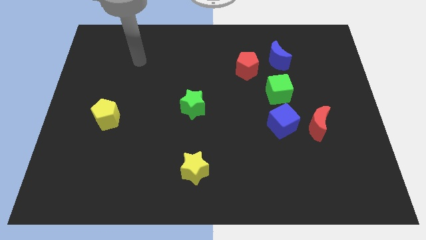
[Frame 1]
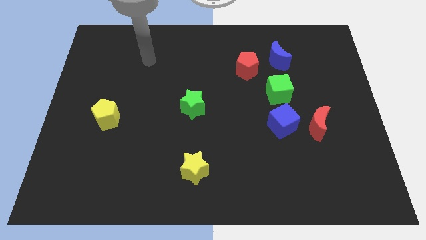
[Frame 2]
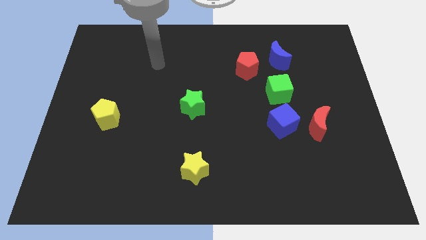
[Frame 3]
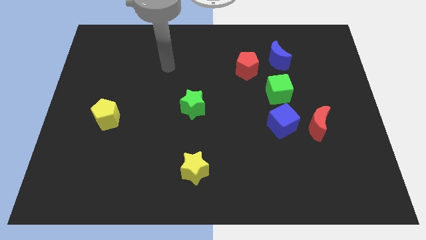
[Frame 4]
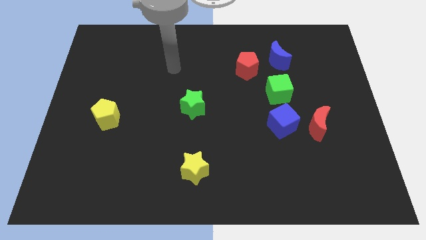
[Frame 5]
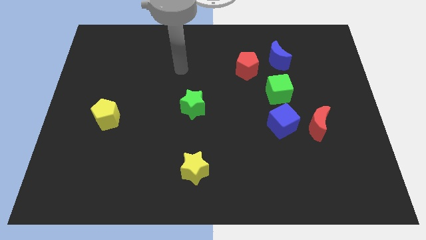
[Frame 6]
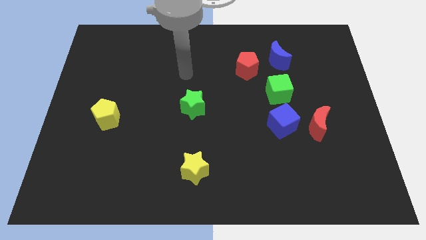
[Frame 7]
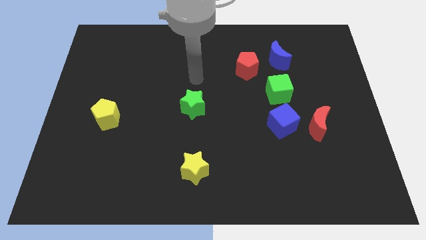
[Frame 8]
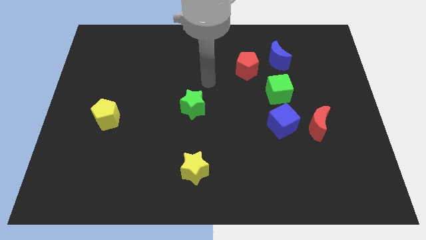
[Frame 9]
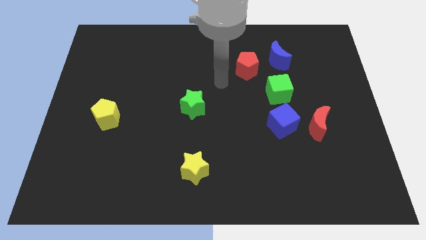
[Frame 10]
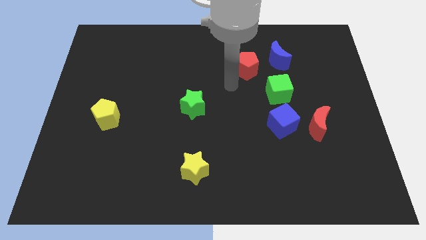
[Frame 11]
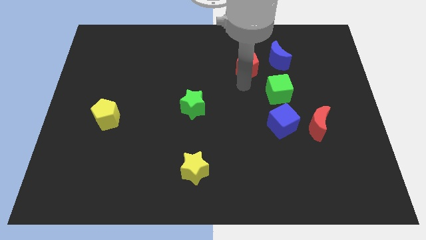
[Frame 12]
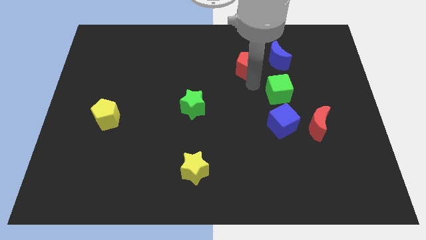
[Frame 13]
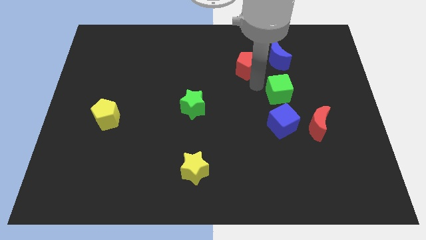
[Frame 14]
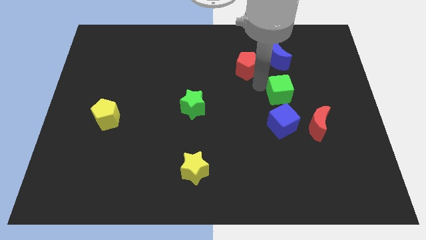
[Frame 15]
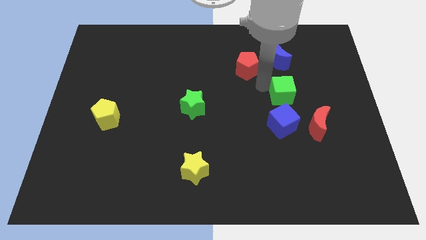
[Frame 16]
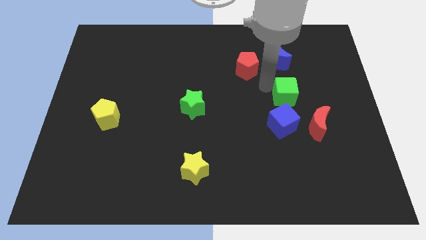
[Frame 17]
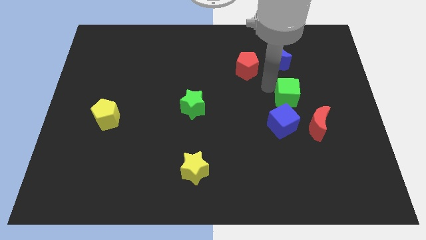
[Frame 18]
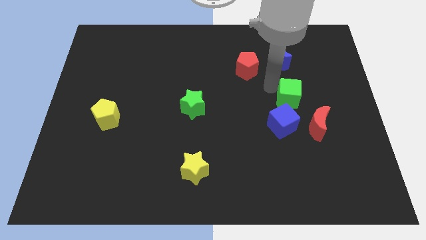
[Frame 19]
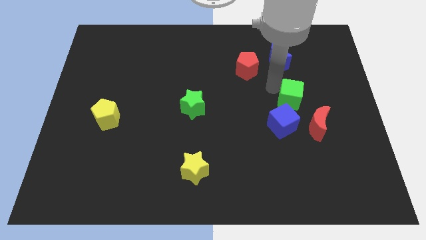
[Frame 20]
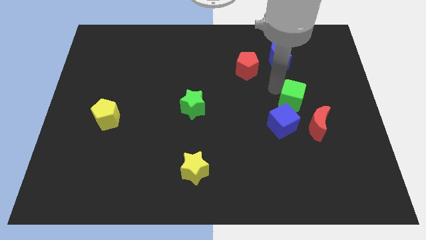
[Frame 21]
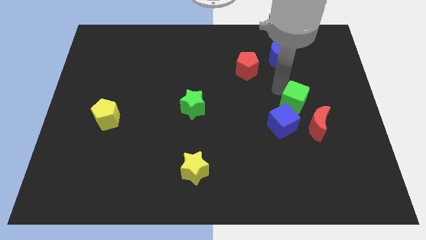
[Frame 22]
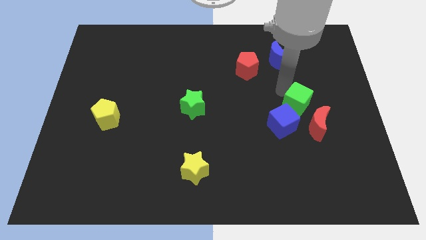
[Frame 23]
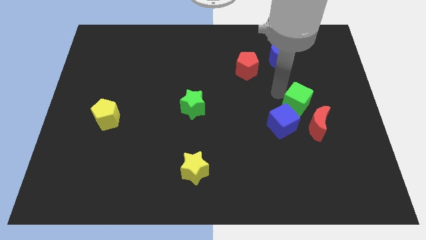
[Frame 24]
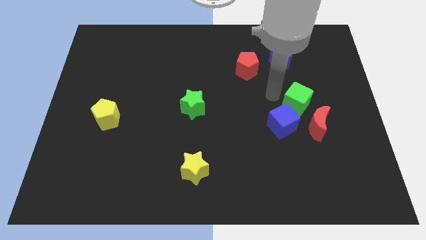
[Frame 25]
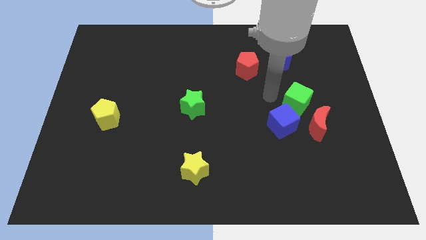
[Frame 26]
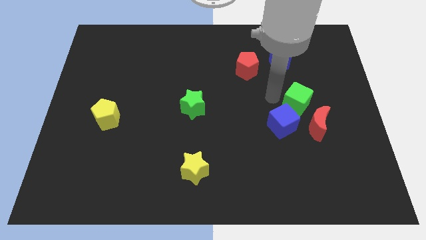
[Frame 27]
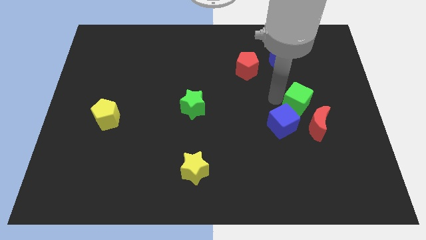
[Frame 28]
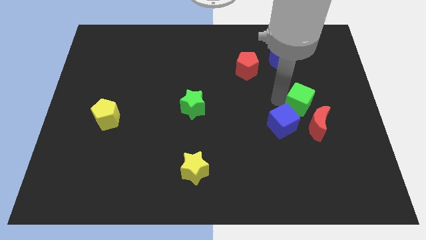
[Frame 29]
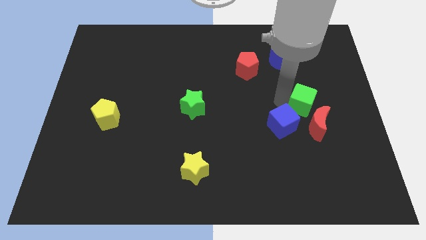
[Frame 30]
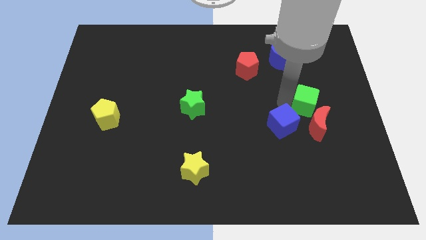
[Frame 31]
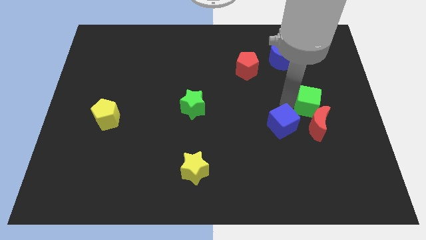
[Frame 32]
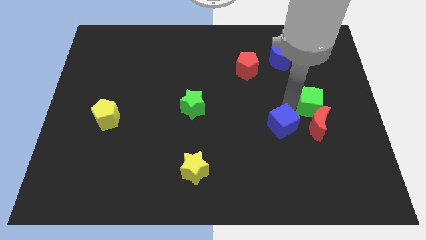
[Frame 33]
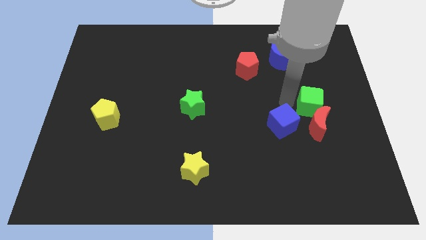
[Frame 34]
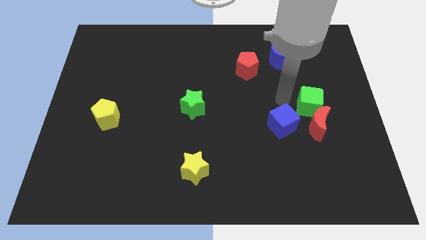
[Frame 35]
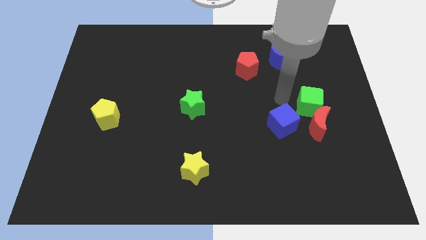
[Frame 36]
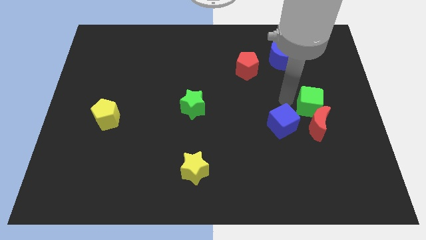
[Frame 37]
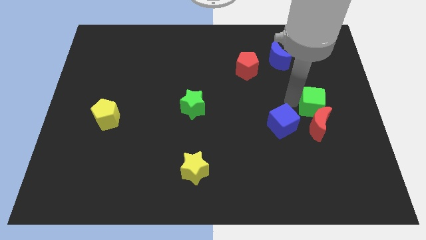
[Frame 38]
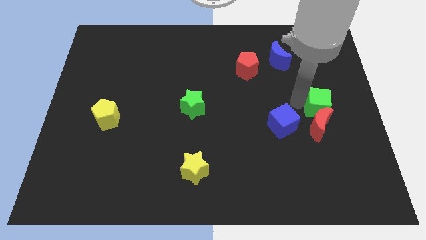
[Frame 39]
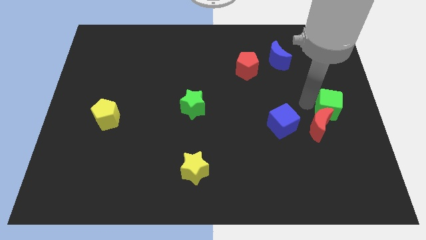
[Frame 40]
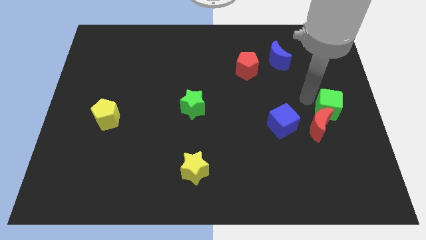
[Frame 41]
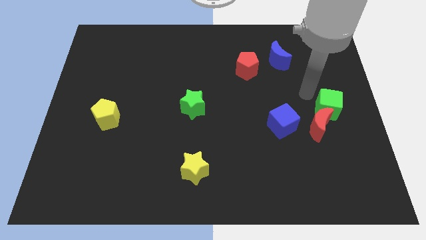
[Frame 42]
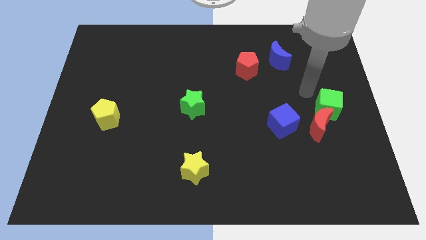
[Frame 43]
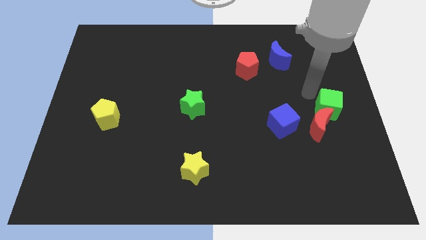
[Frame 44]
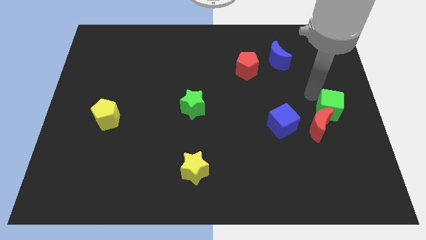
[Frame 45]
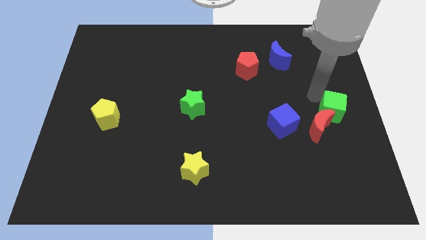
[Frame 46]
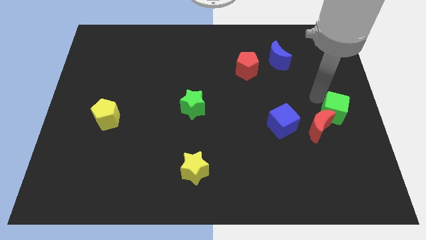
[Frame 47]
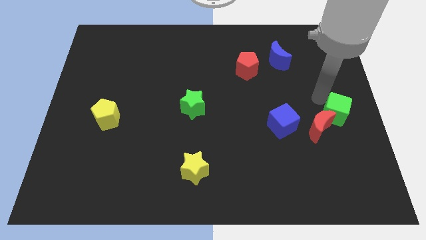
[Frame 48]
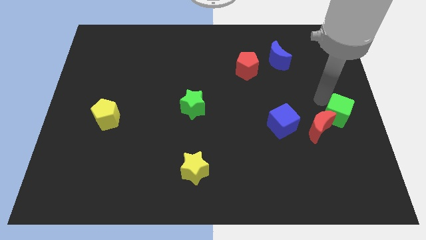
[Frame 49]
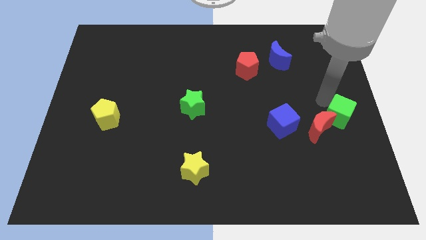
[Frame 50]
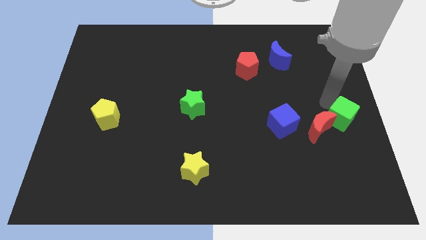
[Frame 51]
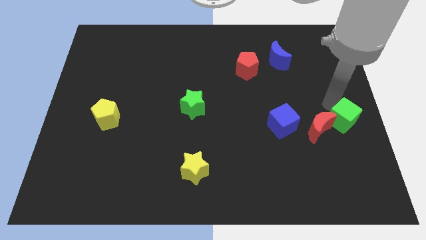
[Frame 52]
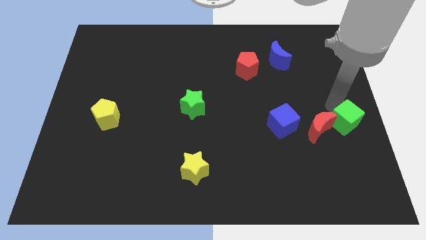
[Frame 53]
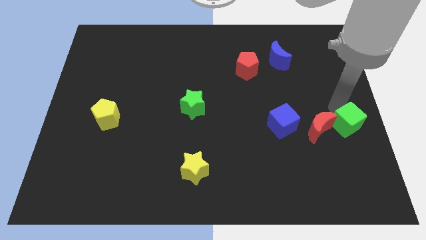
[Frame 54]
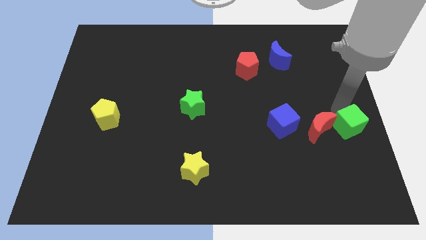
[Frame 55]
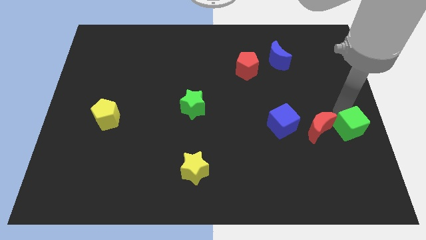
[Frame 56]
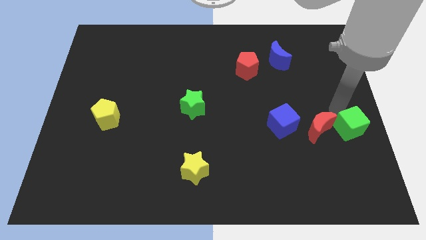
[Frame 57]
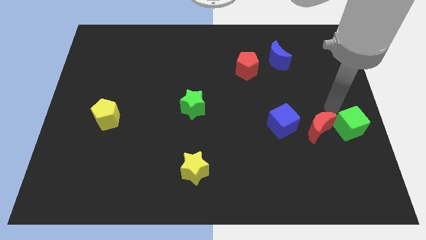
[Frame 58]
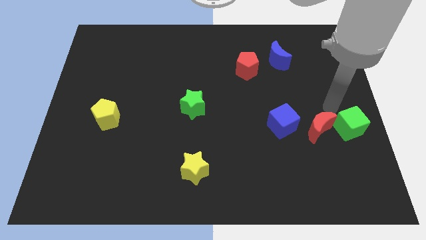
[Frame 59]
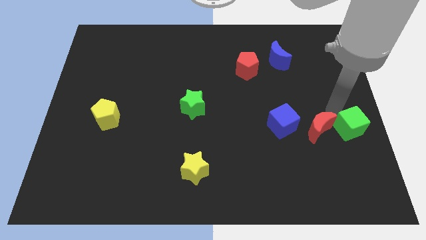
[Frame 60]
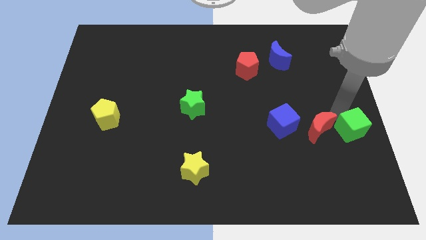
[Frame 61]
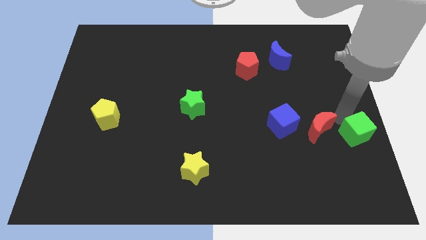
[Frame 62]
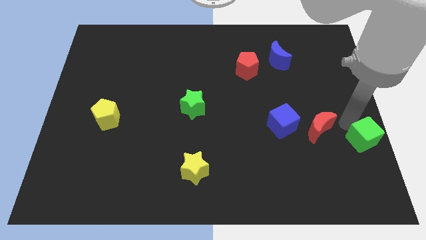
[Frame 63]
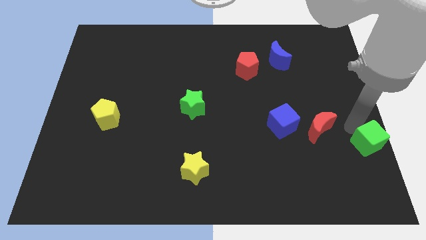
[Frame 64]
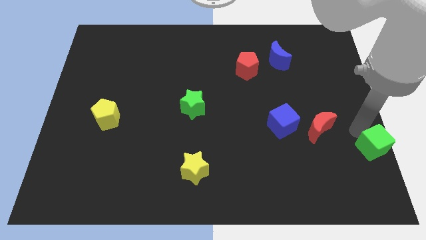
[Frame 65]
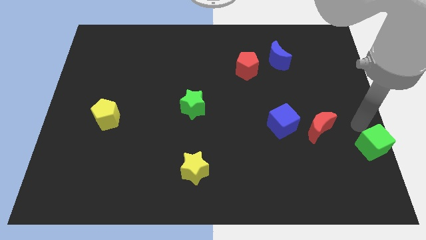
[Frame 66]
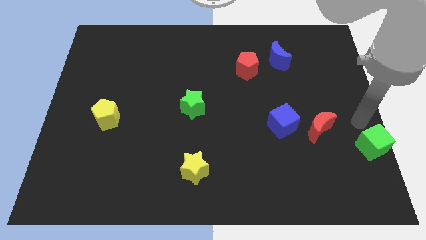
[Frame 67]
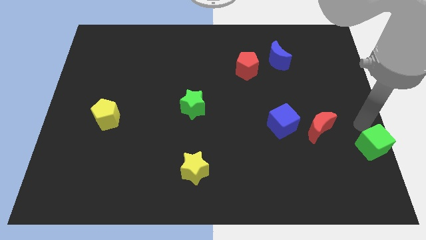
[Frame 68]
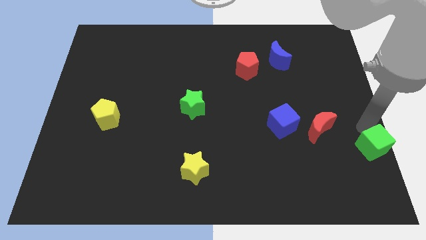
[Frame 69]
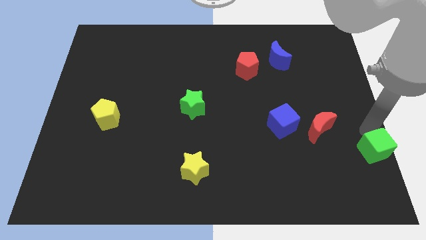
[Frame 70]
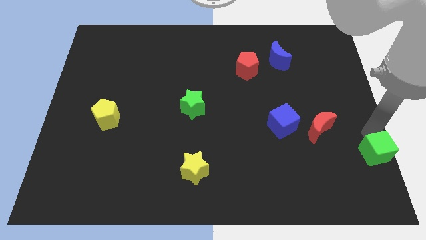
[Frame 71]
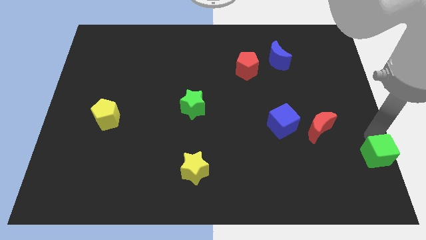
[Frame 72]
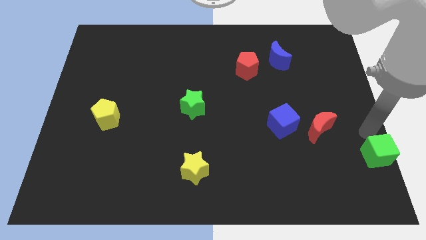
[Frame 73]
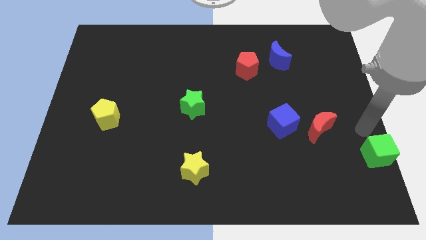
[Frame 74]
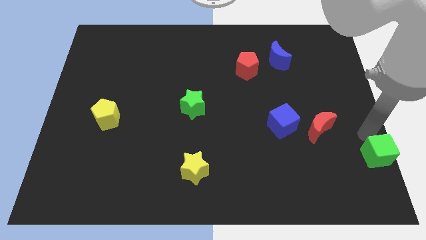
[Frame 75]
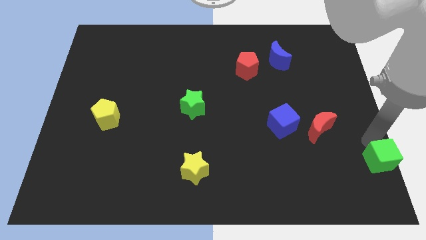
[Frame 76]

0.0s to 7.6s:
slide the green cube to the lower right corner
